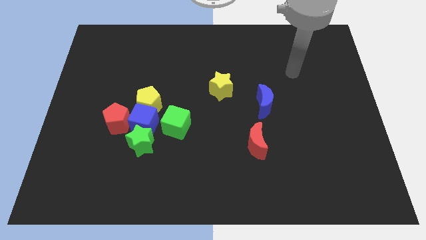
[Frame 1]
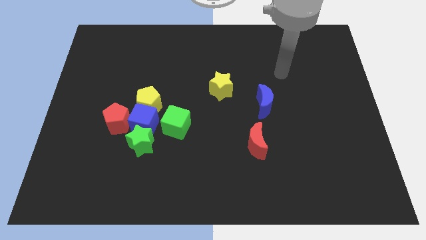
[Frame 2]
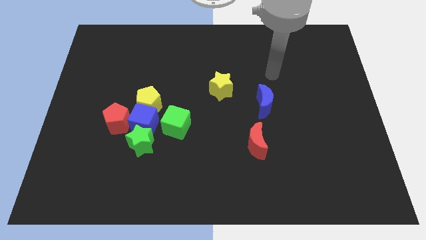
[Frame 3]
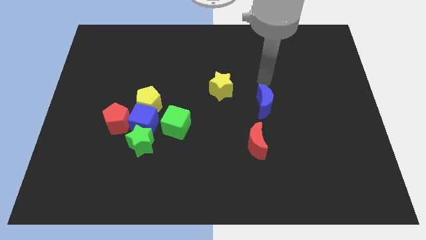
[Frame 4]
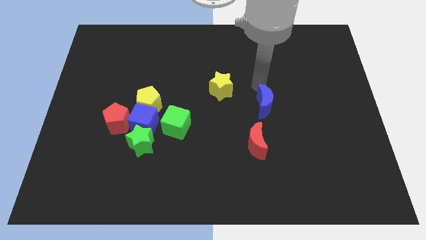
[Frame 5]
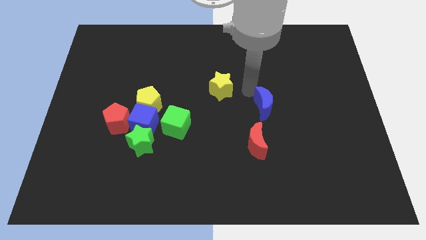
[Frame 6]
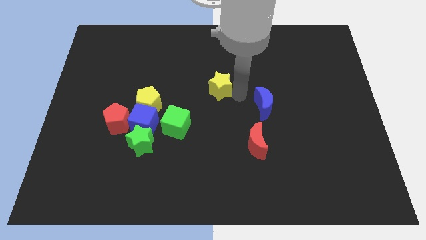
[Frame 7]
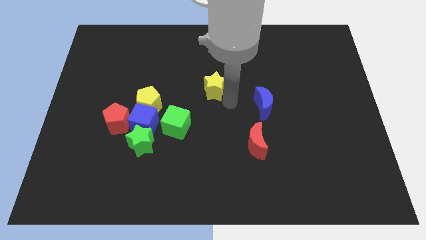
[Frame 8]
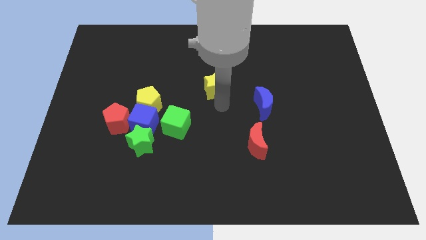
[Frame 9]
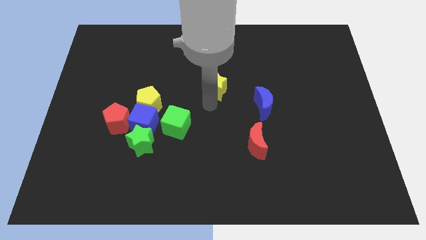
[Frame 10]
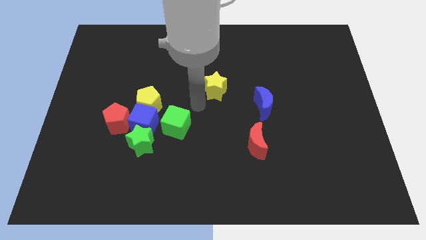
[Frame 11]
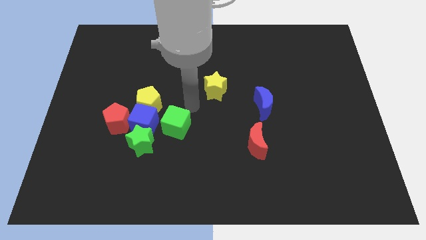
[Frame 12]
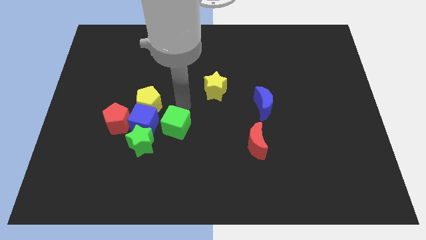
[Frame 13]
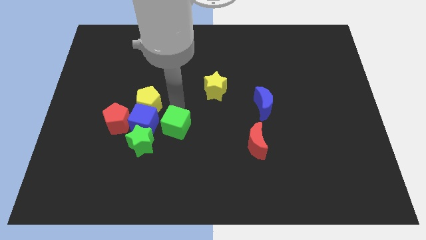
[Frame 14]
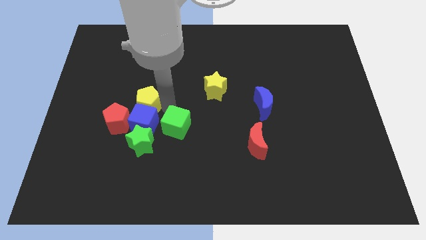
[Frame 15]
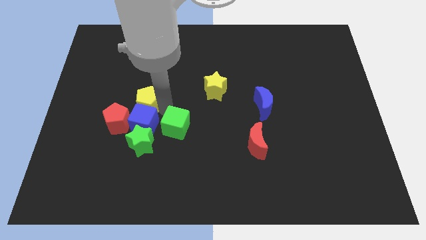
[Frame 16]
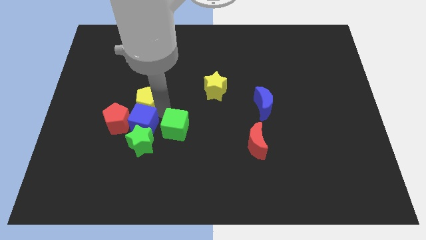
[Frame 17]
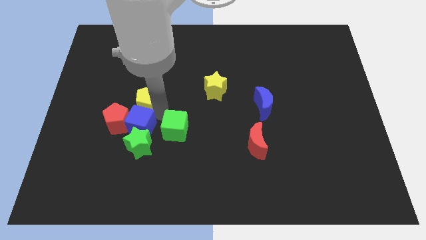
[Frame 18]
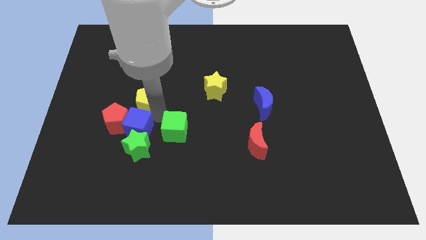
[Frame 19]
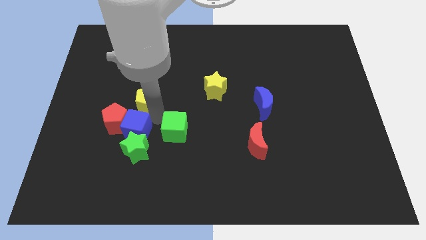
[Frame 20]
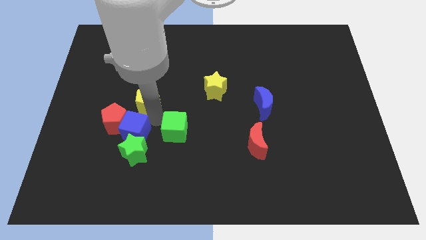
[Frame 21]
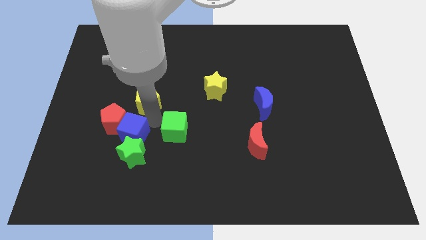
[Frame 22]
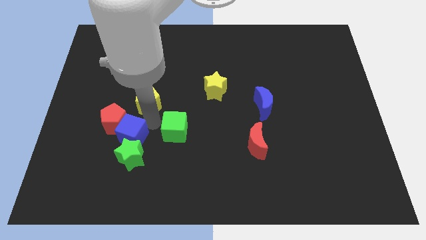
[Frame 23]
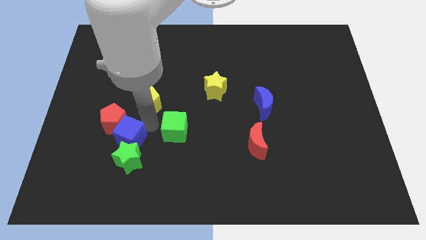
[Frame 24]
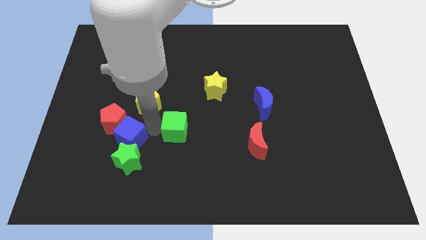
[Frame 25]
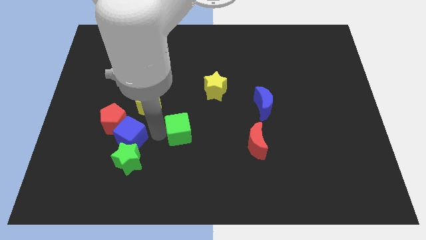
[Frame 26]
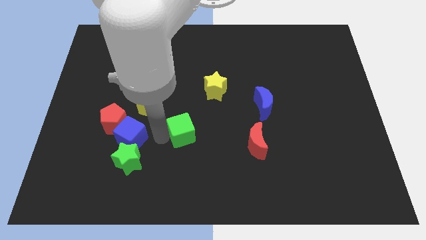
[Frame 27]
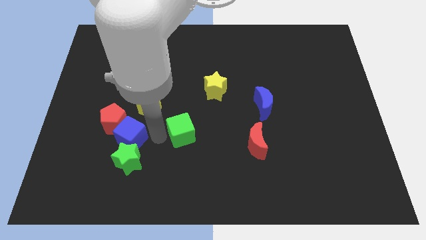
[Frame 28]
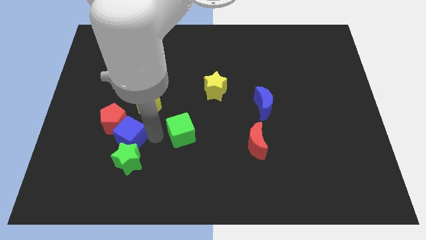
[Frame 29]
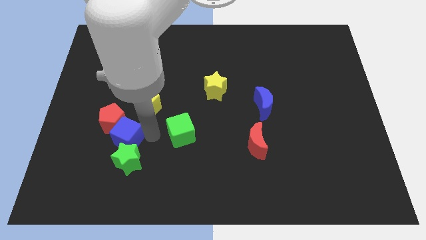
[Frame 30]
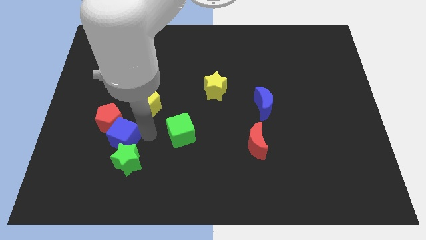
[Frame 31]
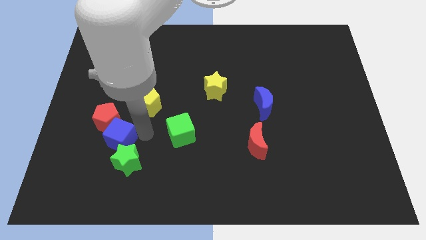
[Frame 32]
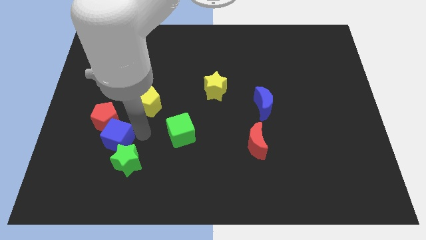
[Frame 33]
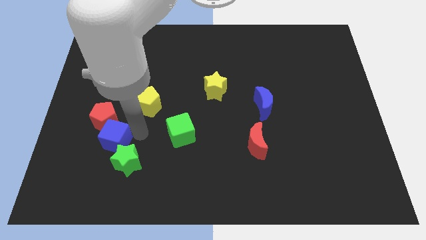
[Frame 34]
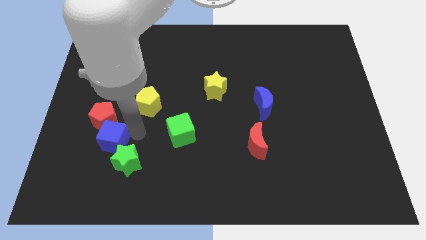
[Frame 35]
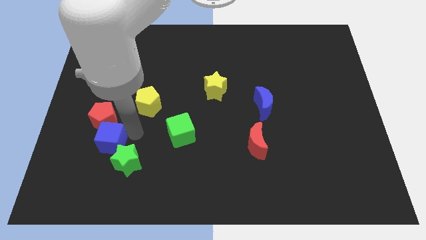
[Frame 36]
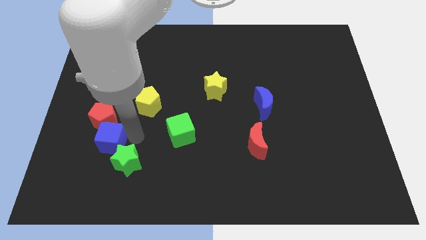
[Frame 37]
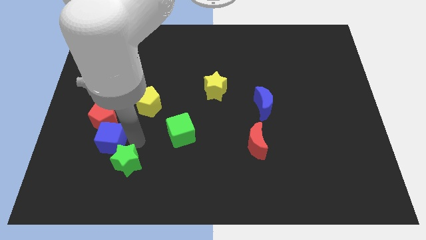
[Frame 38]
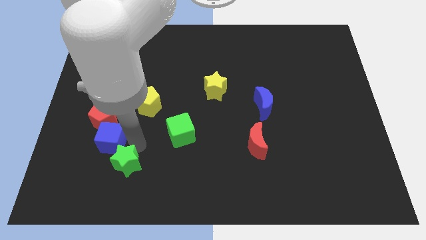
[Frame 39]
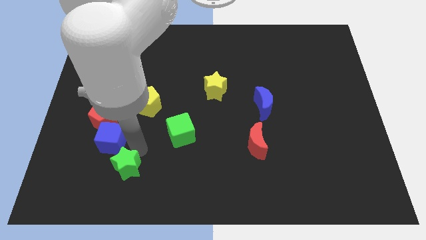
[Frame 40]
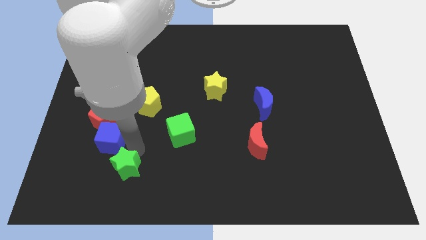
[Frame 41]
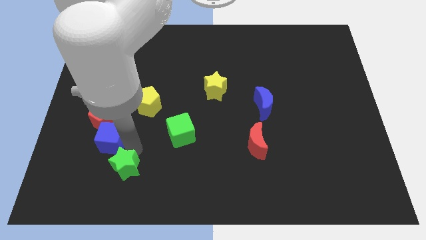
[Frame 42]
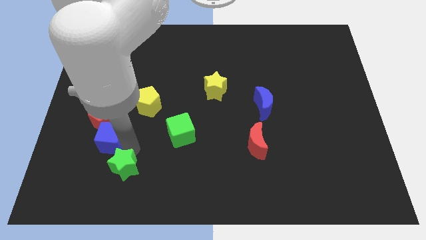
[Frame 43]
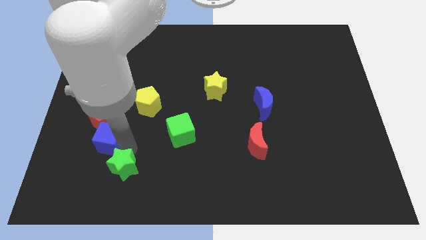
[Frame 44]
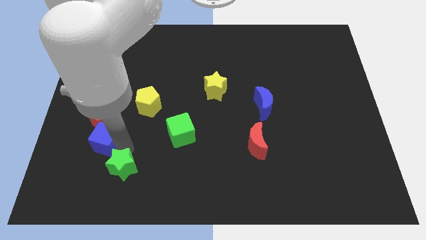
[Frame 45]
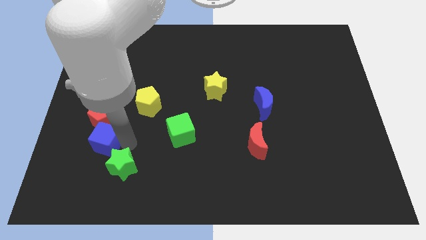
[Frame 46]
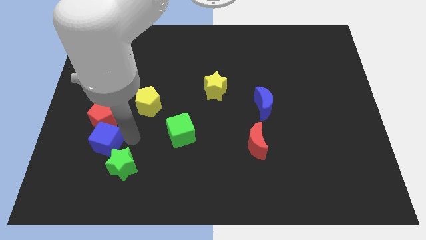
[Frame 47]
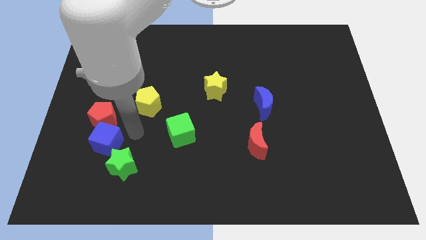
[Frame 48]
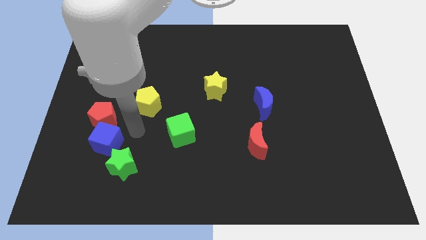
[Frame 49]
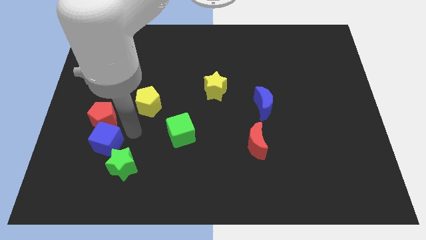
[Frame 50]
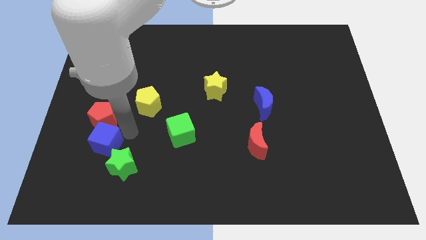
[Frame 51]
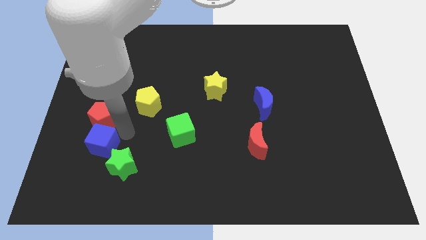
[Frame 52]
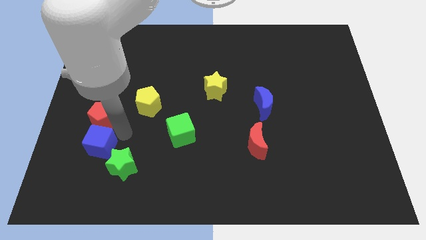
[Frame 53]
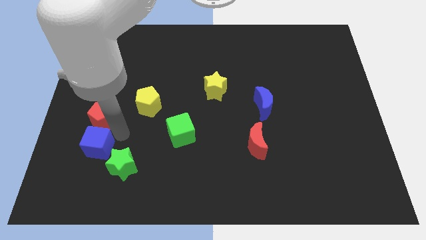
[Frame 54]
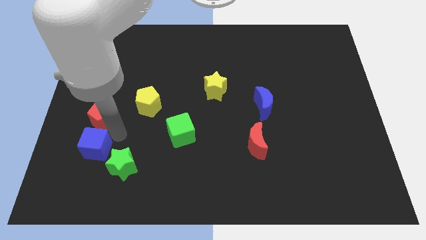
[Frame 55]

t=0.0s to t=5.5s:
pull the blue cube apart from the group of blocks

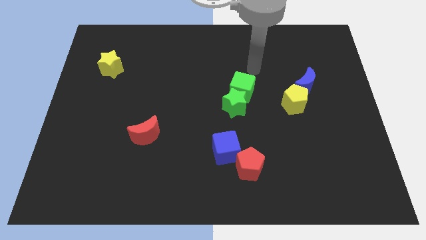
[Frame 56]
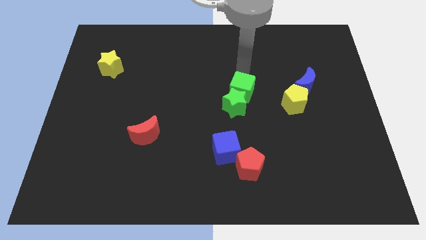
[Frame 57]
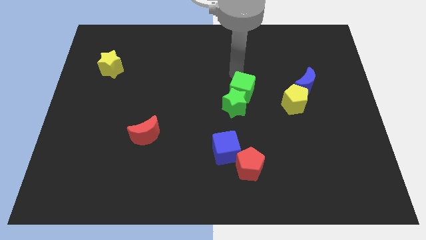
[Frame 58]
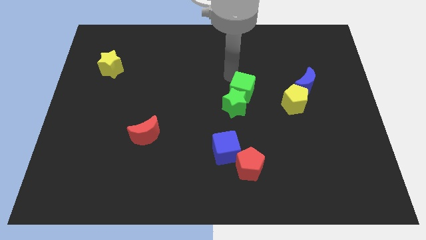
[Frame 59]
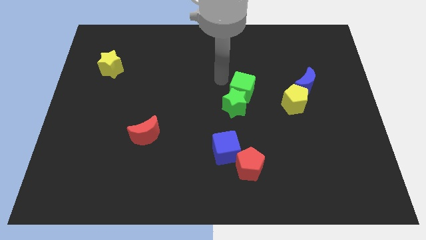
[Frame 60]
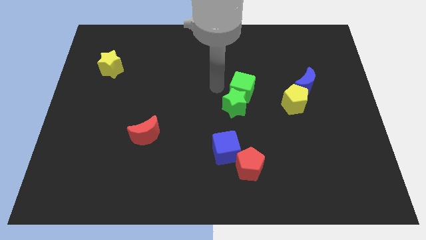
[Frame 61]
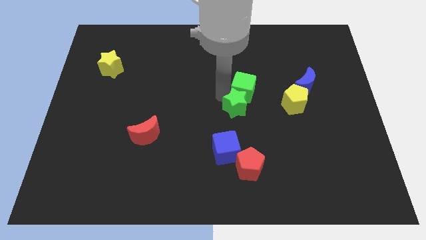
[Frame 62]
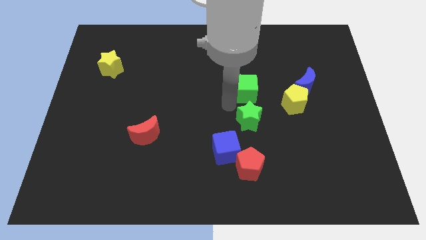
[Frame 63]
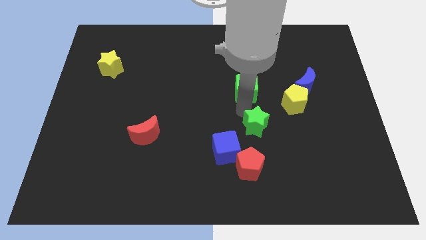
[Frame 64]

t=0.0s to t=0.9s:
move the green cube away from the green star

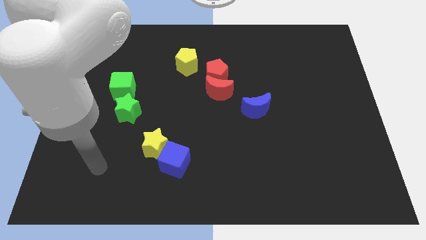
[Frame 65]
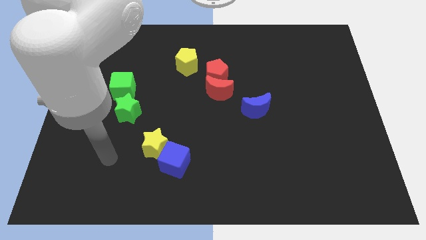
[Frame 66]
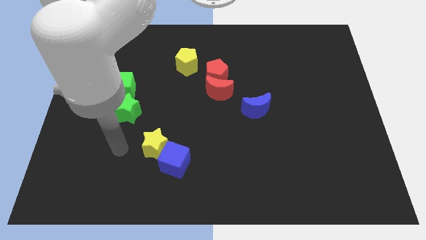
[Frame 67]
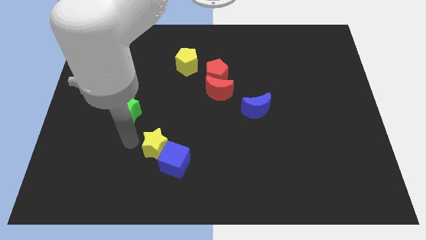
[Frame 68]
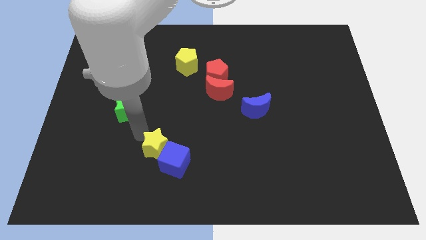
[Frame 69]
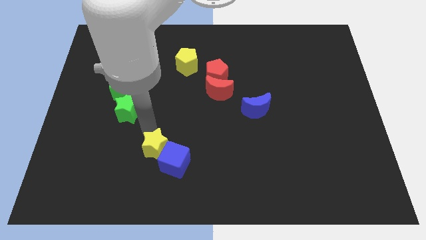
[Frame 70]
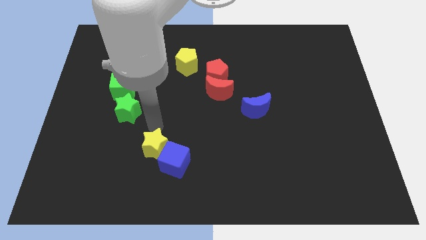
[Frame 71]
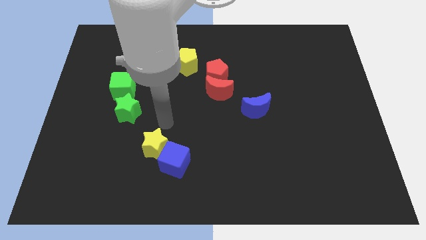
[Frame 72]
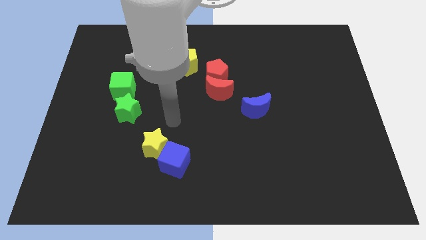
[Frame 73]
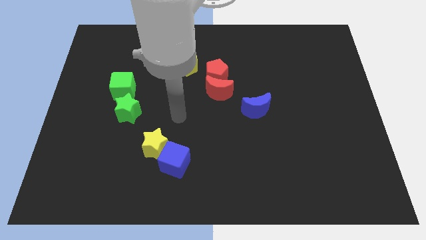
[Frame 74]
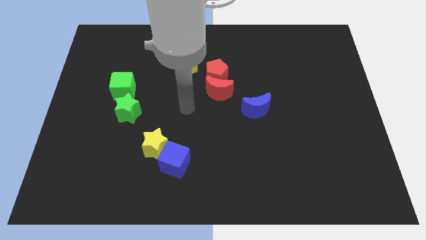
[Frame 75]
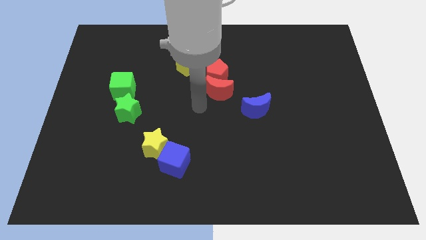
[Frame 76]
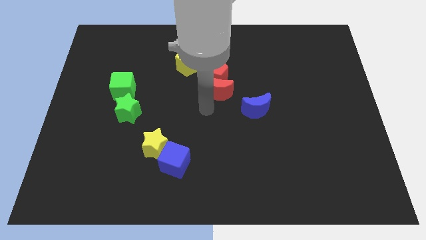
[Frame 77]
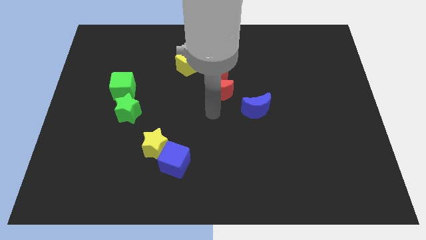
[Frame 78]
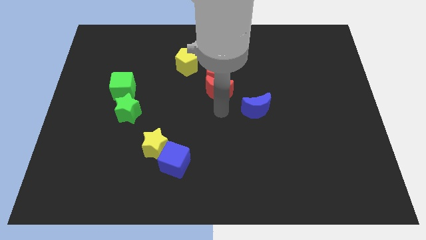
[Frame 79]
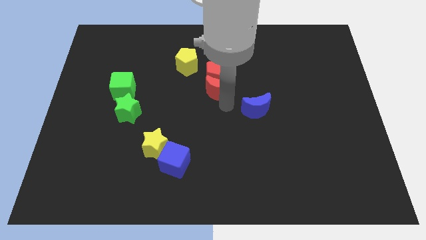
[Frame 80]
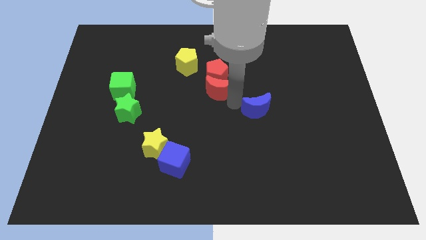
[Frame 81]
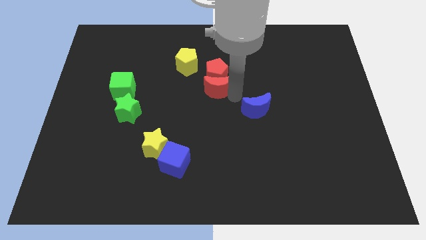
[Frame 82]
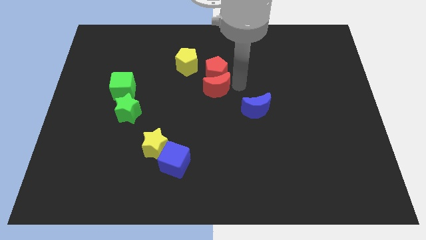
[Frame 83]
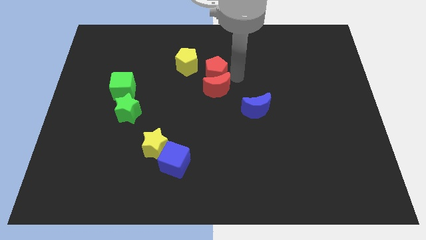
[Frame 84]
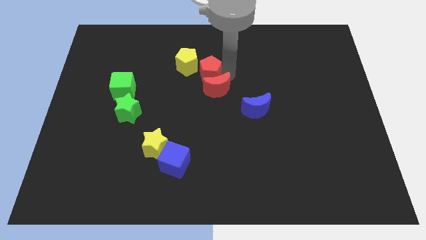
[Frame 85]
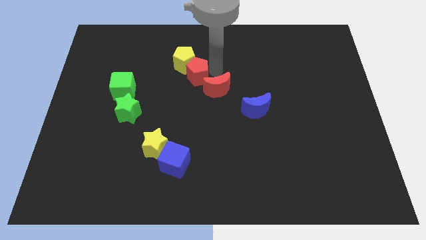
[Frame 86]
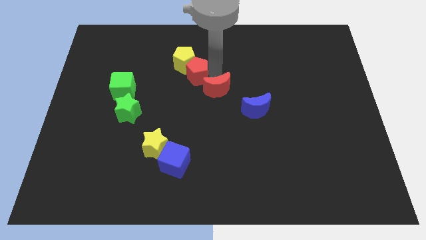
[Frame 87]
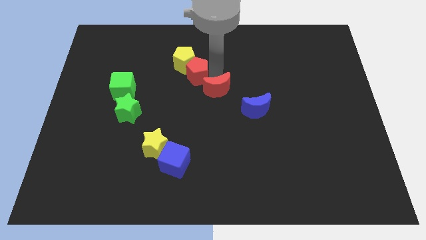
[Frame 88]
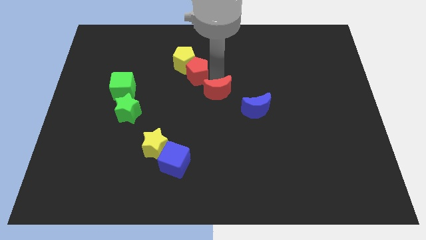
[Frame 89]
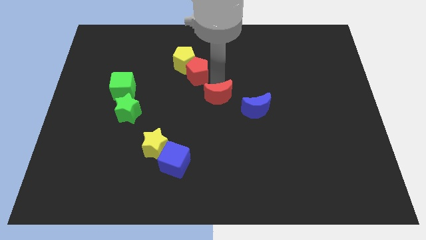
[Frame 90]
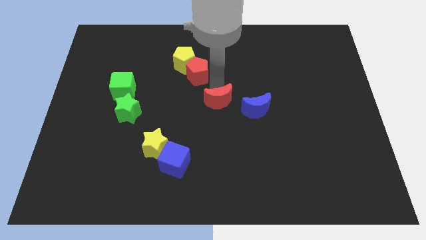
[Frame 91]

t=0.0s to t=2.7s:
pull the red moon apart from the red pentagon

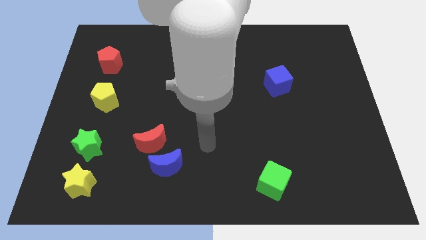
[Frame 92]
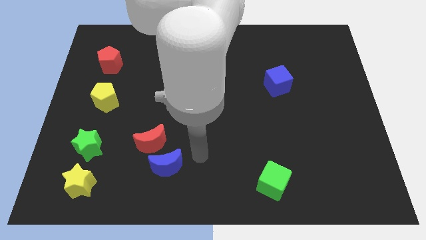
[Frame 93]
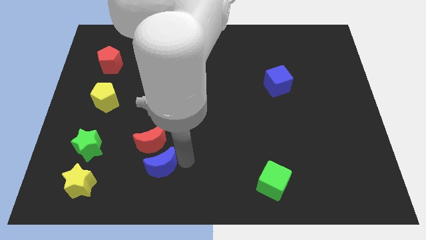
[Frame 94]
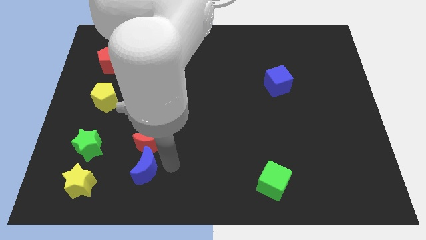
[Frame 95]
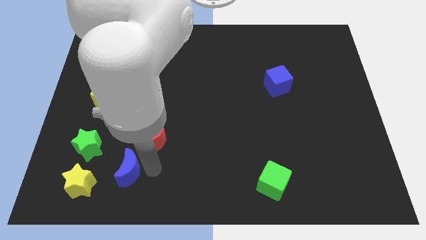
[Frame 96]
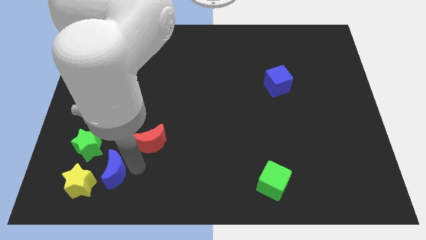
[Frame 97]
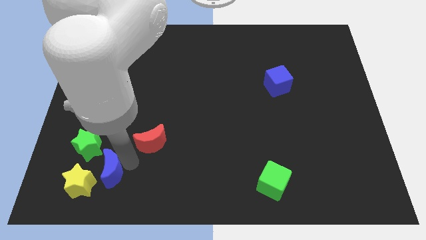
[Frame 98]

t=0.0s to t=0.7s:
move the red moon away from the blue moon
